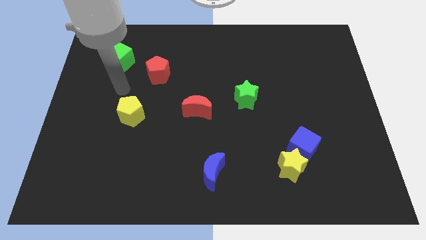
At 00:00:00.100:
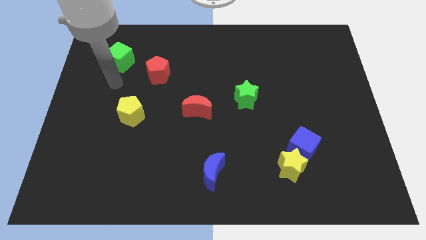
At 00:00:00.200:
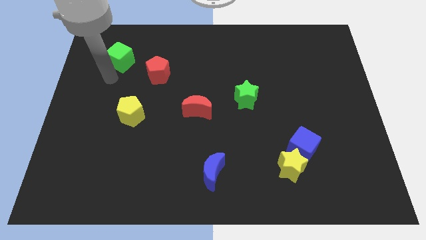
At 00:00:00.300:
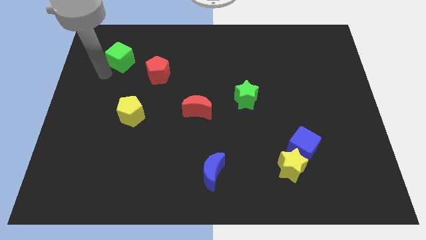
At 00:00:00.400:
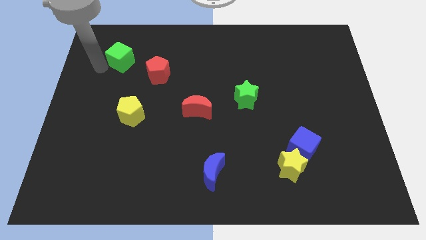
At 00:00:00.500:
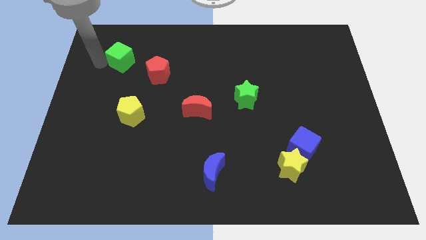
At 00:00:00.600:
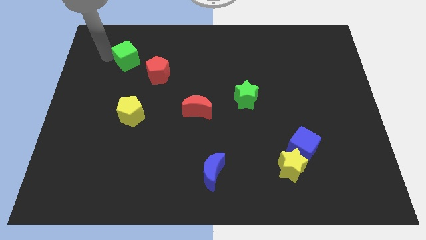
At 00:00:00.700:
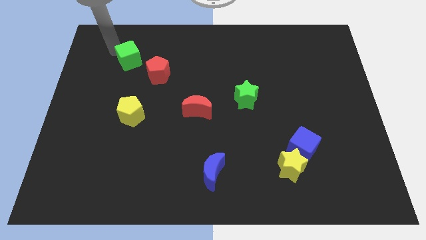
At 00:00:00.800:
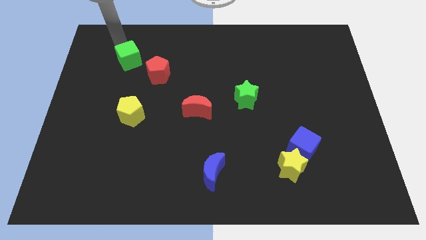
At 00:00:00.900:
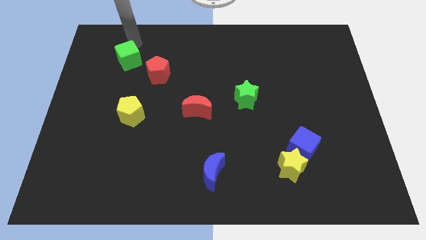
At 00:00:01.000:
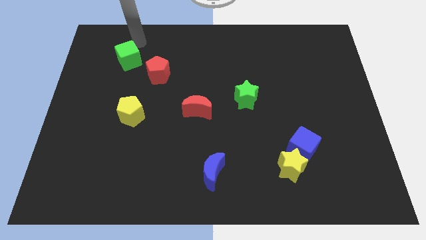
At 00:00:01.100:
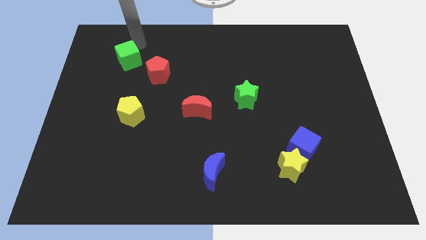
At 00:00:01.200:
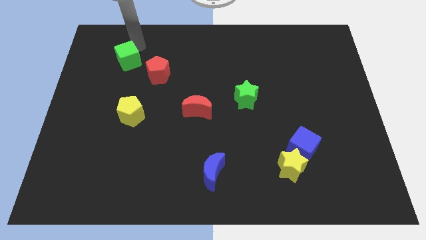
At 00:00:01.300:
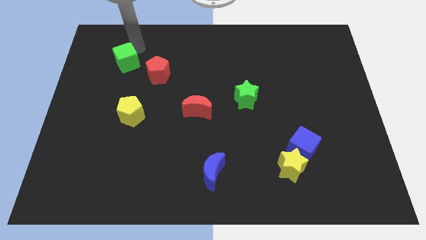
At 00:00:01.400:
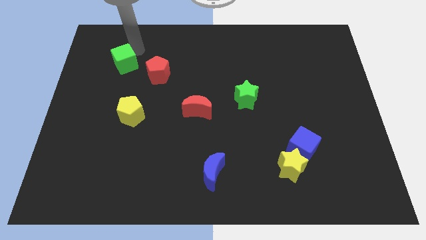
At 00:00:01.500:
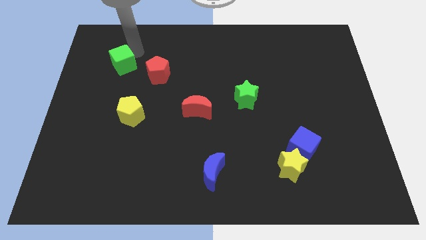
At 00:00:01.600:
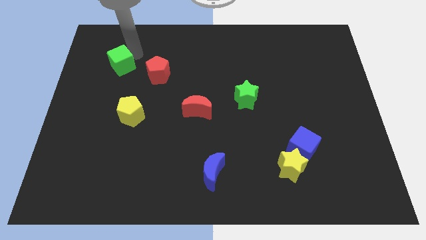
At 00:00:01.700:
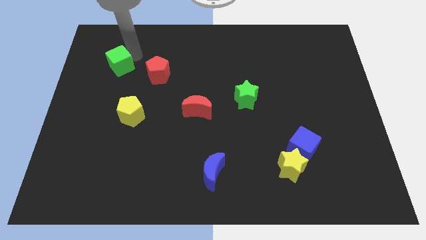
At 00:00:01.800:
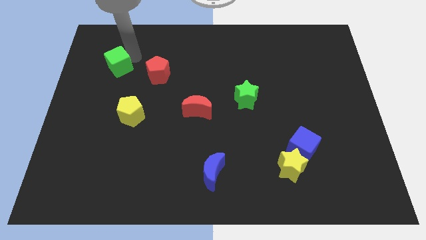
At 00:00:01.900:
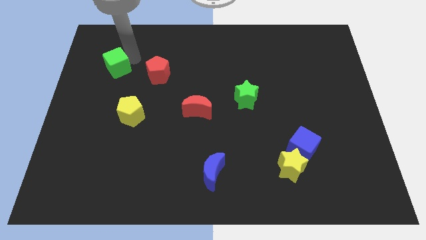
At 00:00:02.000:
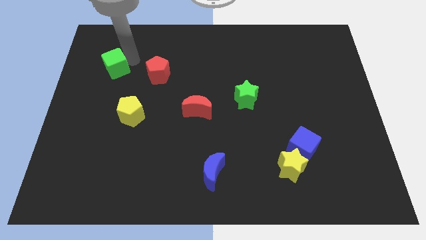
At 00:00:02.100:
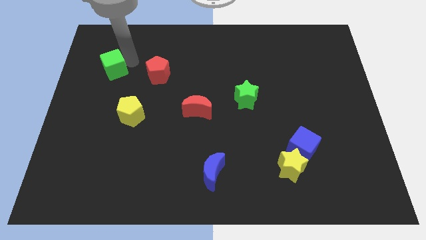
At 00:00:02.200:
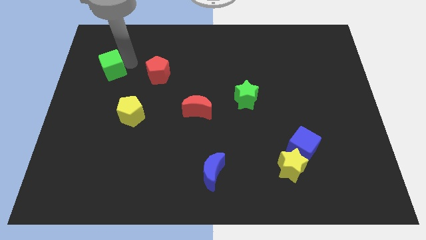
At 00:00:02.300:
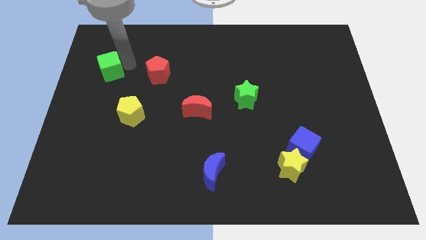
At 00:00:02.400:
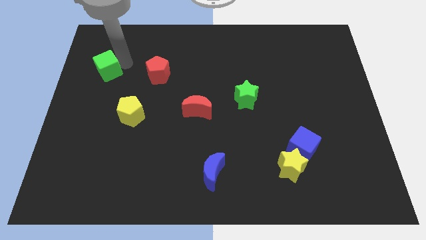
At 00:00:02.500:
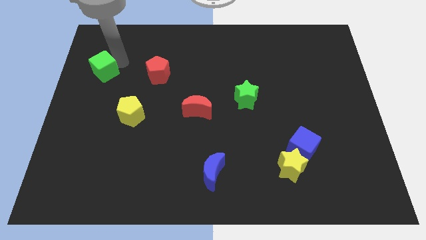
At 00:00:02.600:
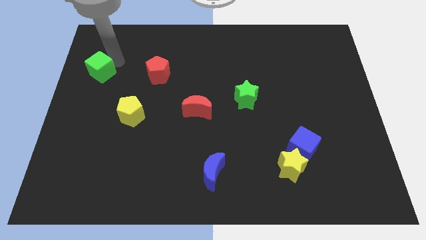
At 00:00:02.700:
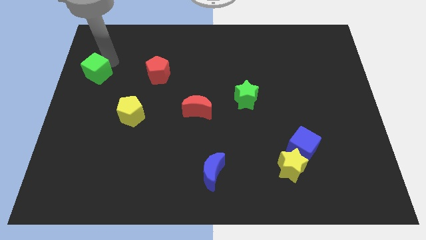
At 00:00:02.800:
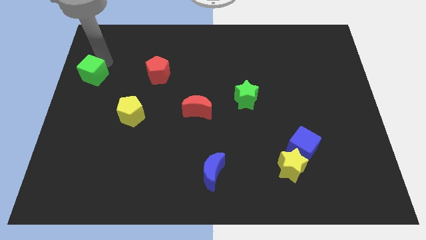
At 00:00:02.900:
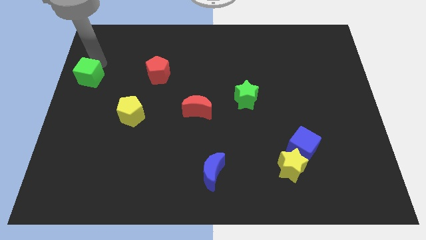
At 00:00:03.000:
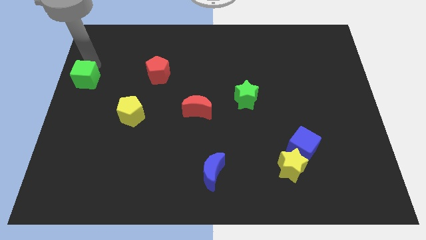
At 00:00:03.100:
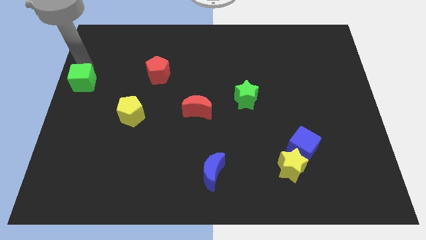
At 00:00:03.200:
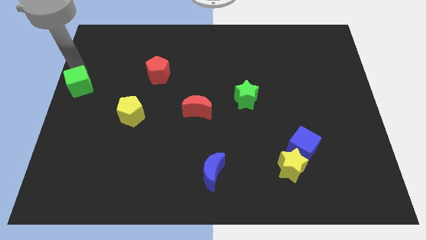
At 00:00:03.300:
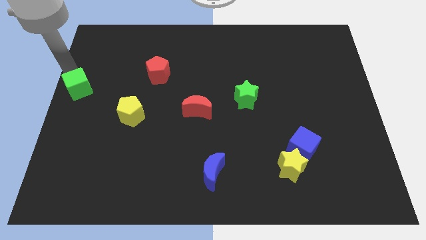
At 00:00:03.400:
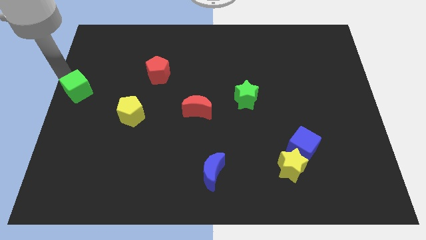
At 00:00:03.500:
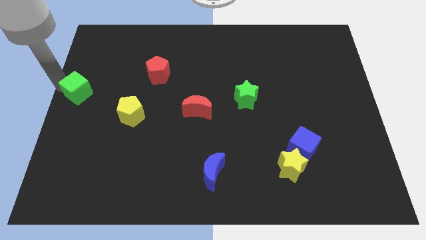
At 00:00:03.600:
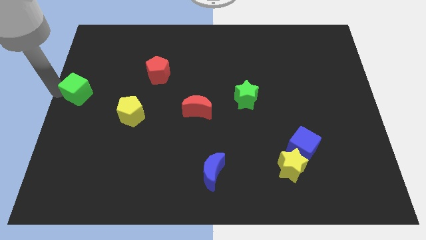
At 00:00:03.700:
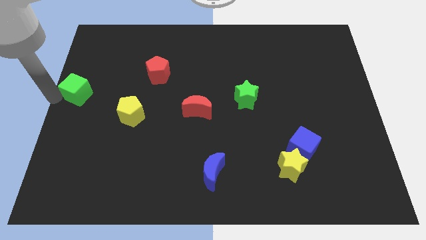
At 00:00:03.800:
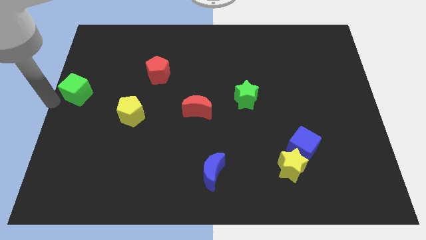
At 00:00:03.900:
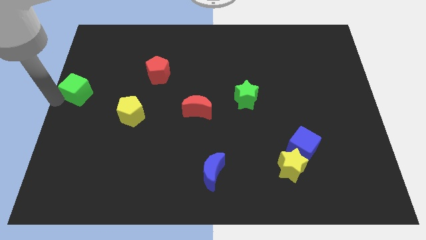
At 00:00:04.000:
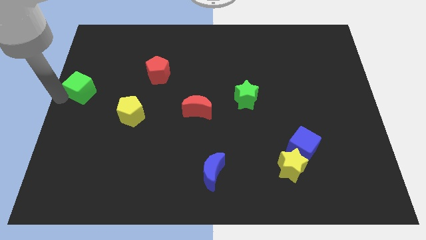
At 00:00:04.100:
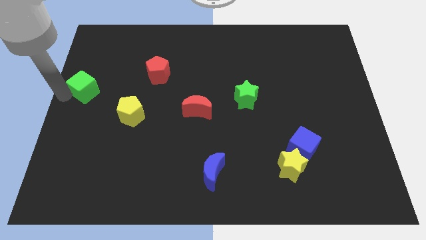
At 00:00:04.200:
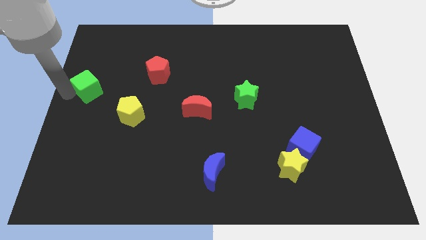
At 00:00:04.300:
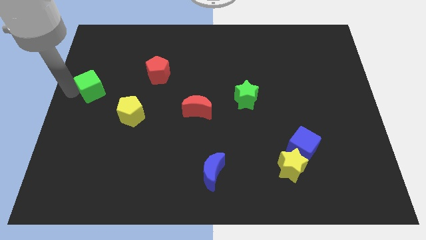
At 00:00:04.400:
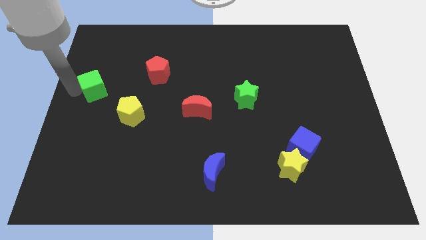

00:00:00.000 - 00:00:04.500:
slide the green cube to the top left of the yellow pentagon

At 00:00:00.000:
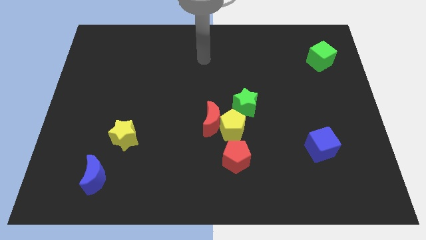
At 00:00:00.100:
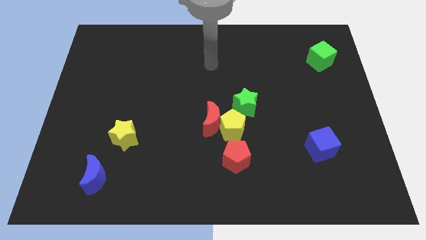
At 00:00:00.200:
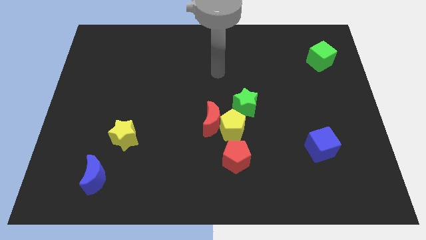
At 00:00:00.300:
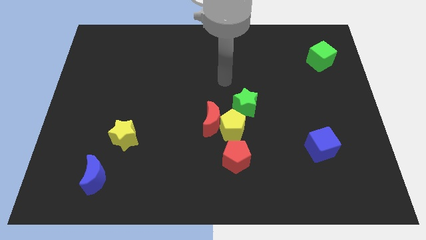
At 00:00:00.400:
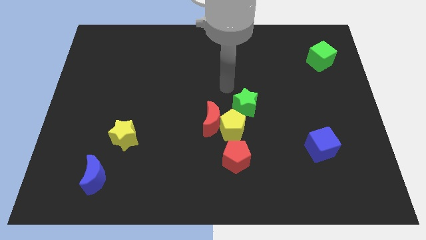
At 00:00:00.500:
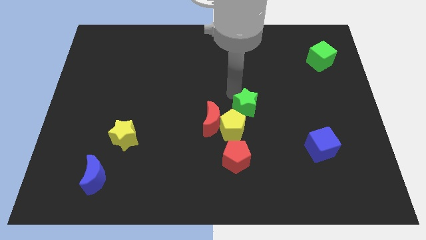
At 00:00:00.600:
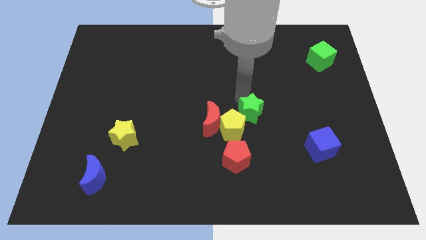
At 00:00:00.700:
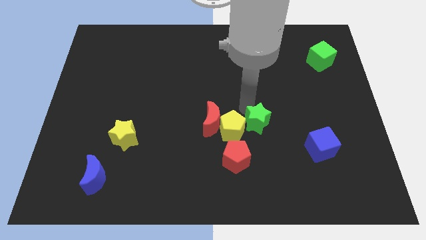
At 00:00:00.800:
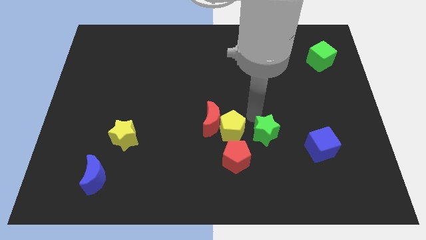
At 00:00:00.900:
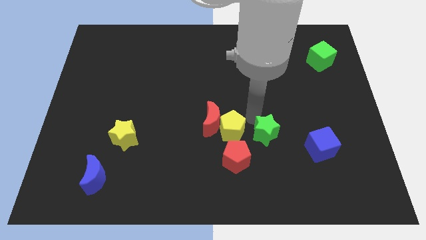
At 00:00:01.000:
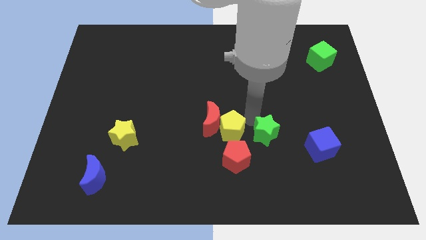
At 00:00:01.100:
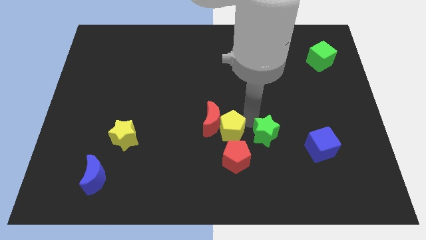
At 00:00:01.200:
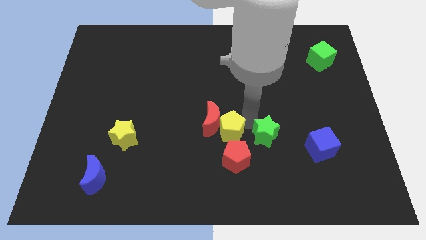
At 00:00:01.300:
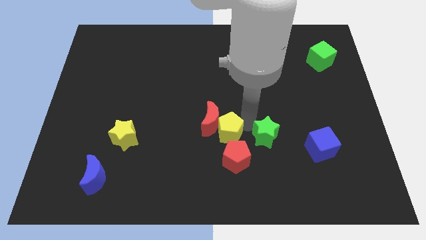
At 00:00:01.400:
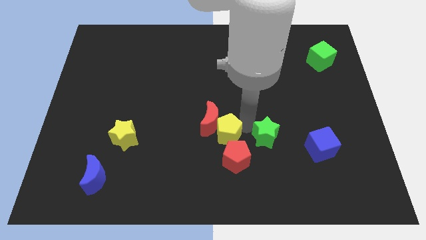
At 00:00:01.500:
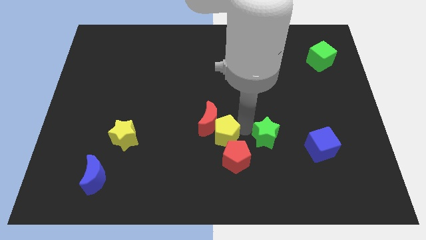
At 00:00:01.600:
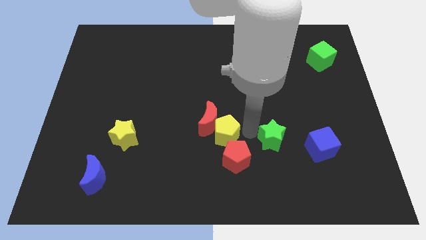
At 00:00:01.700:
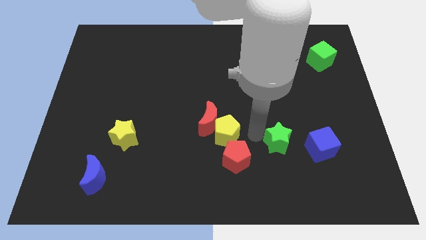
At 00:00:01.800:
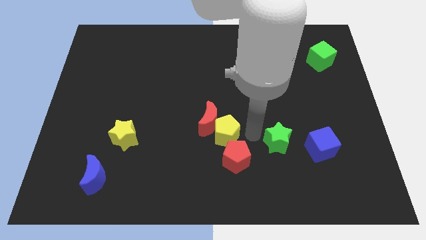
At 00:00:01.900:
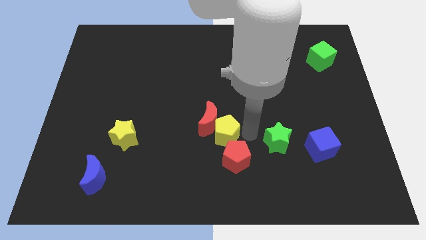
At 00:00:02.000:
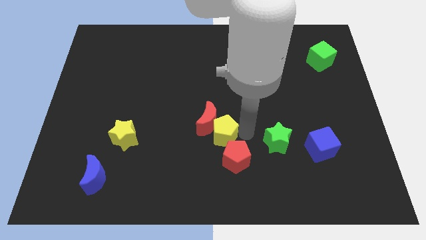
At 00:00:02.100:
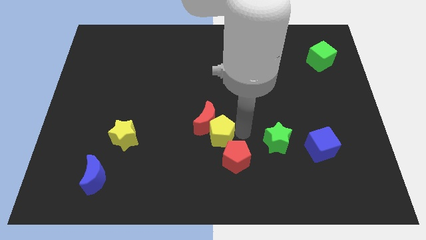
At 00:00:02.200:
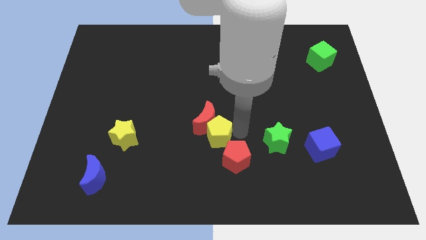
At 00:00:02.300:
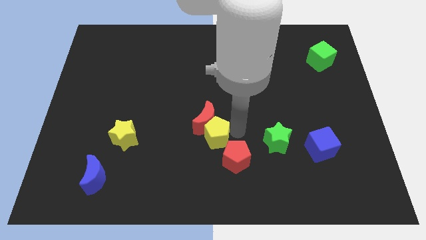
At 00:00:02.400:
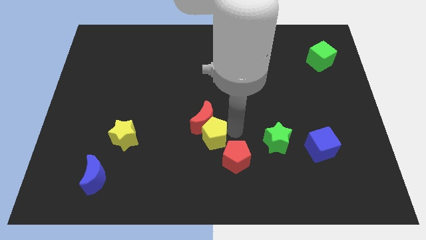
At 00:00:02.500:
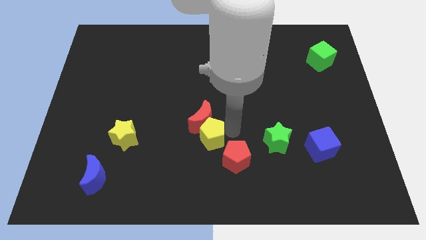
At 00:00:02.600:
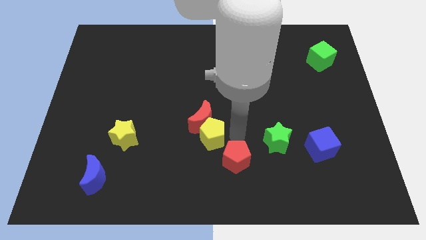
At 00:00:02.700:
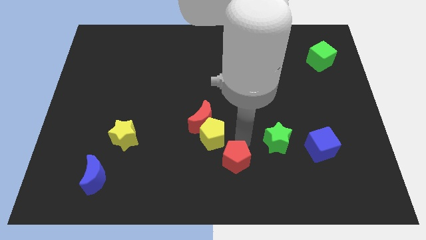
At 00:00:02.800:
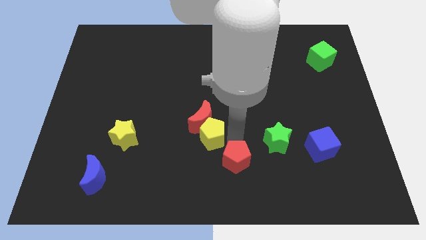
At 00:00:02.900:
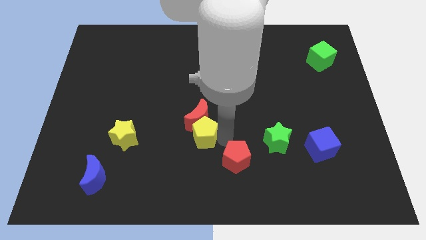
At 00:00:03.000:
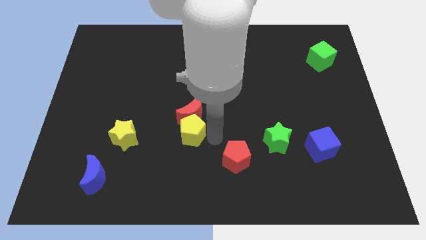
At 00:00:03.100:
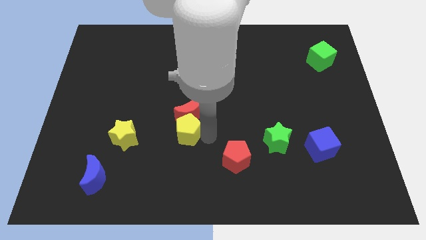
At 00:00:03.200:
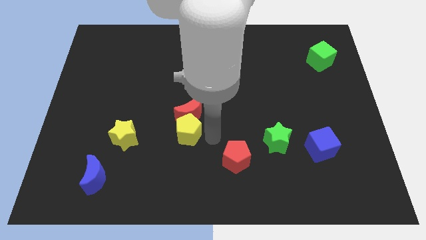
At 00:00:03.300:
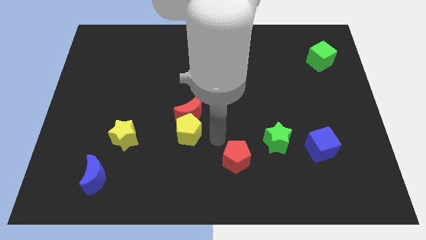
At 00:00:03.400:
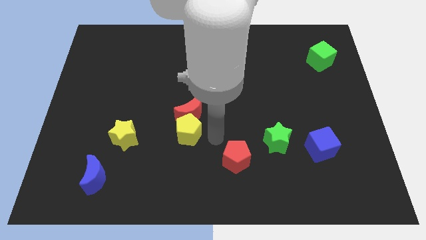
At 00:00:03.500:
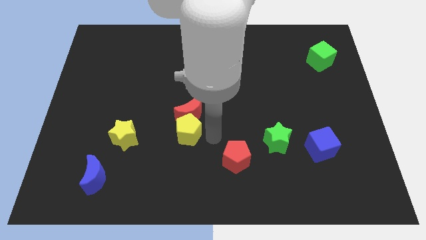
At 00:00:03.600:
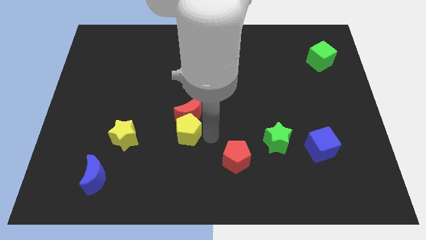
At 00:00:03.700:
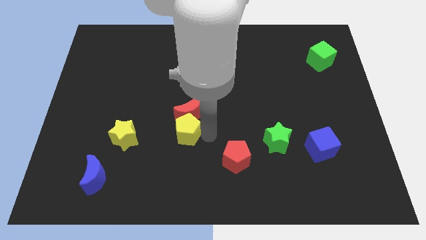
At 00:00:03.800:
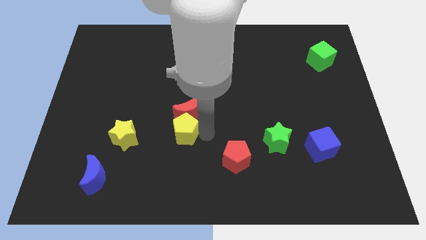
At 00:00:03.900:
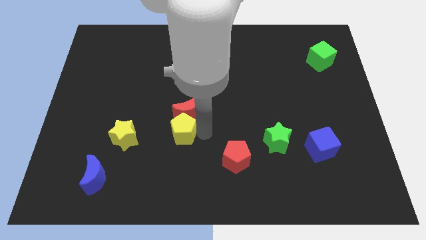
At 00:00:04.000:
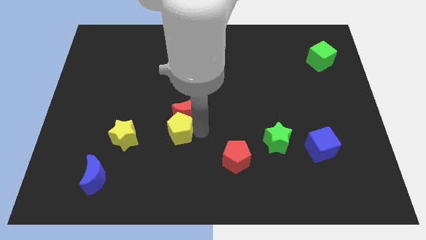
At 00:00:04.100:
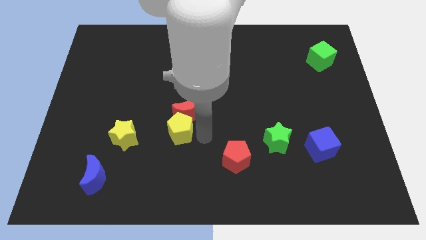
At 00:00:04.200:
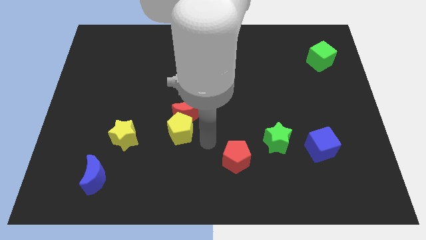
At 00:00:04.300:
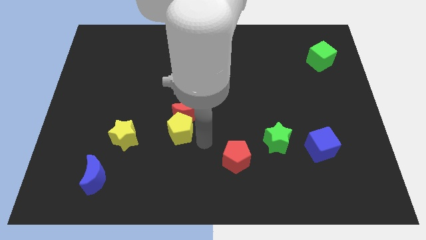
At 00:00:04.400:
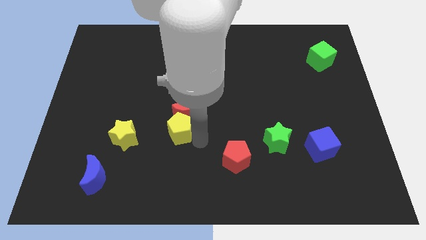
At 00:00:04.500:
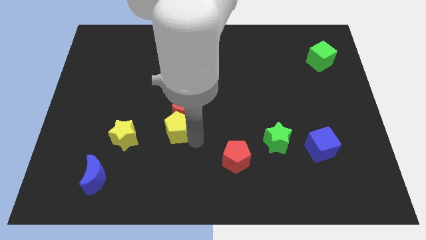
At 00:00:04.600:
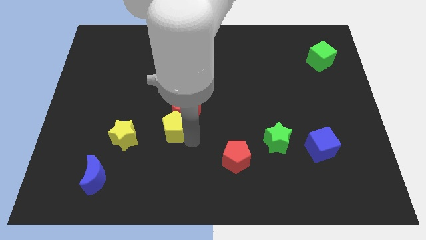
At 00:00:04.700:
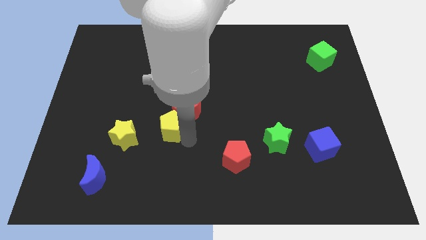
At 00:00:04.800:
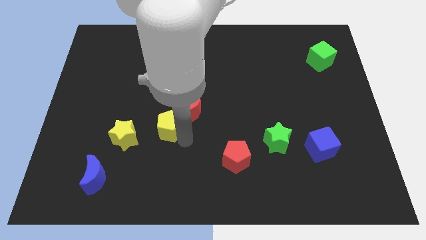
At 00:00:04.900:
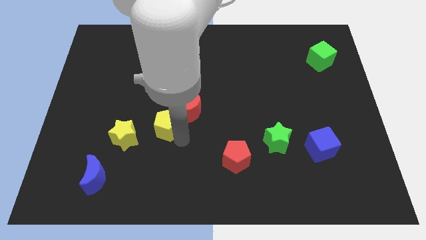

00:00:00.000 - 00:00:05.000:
slide the yellow pentagon diagonally up and to the right of the yellow star
